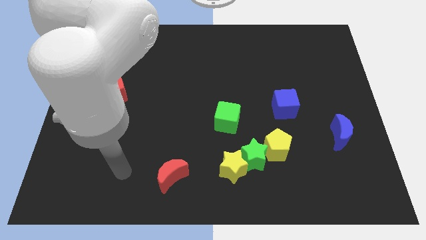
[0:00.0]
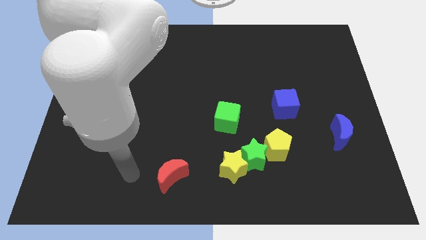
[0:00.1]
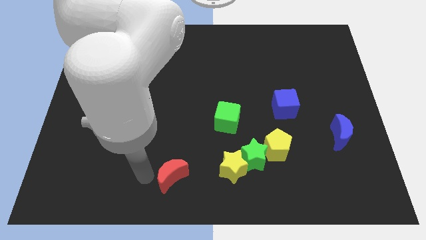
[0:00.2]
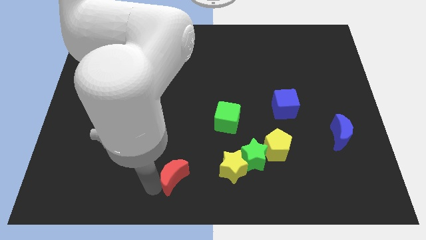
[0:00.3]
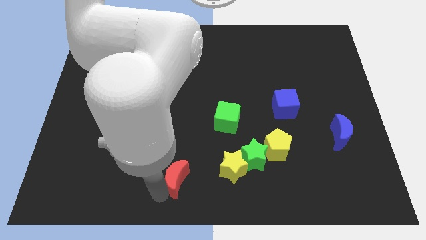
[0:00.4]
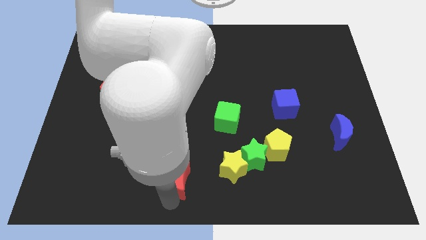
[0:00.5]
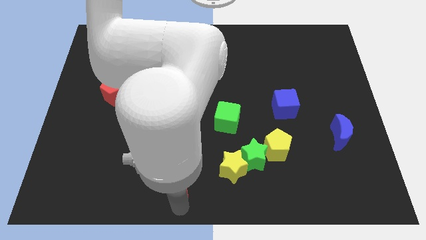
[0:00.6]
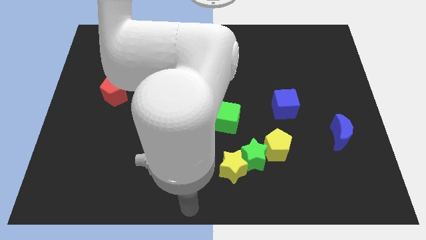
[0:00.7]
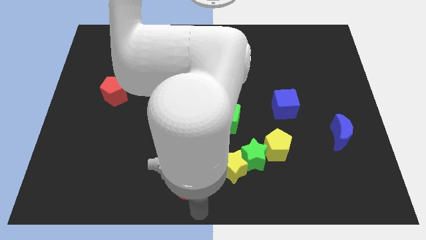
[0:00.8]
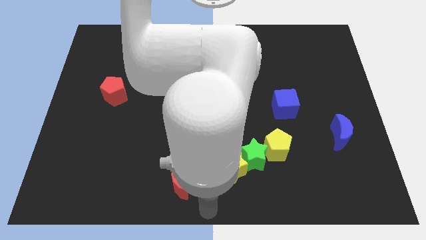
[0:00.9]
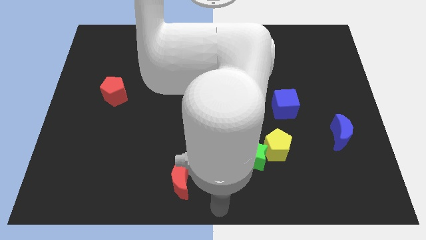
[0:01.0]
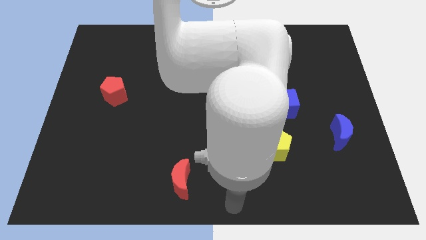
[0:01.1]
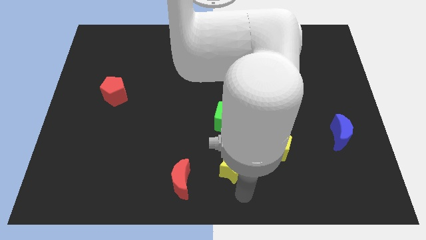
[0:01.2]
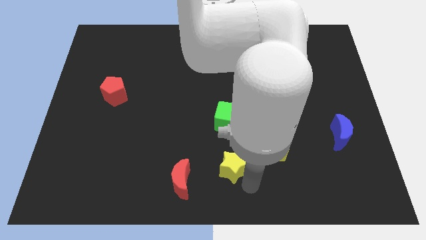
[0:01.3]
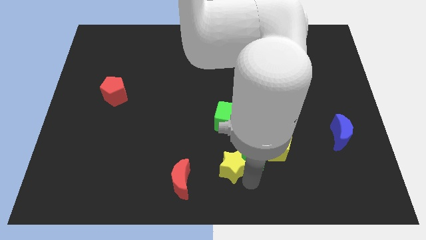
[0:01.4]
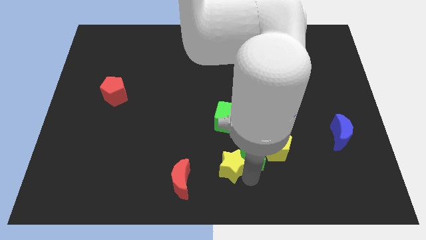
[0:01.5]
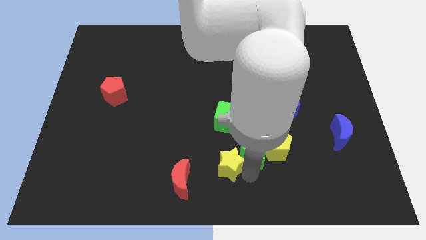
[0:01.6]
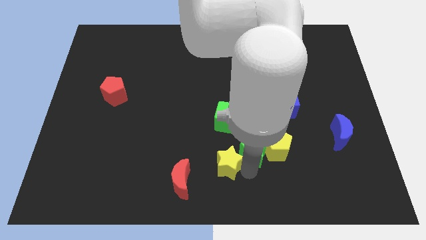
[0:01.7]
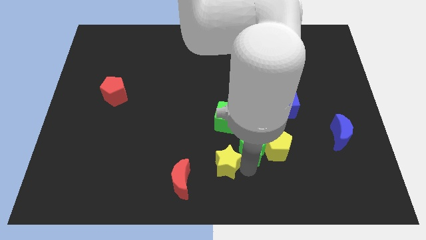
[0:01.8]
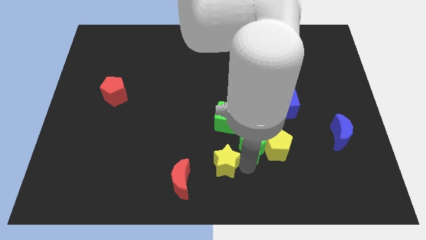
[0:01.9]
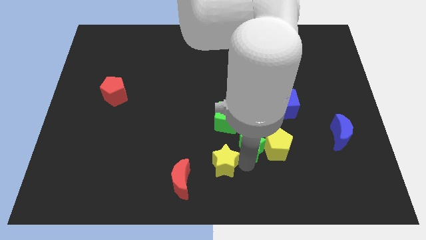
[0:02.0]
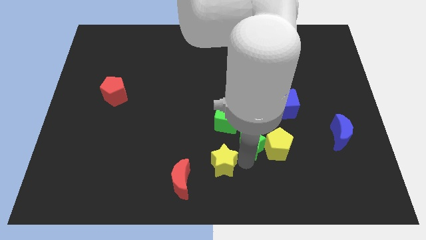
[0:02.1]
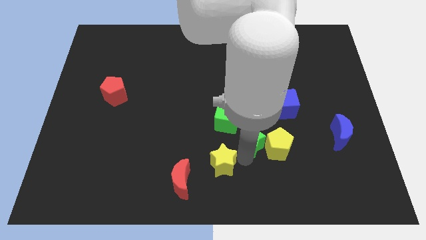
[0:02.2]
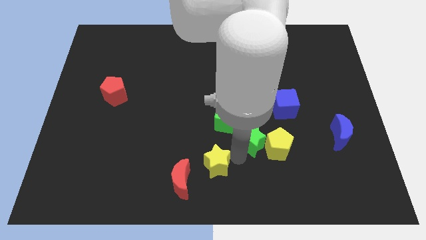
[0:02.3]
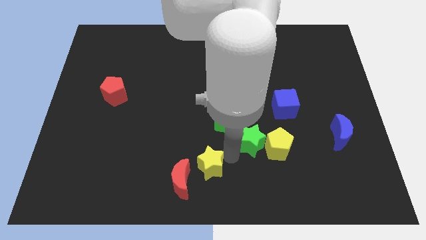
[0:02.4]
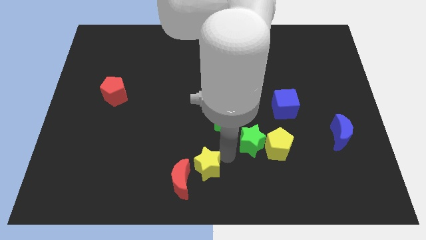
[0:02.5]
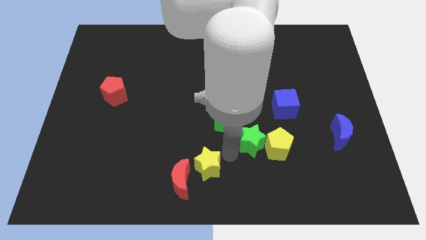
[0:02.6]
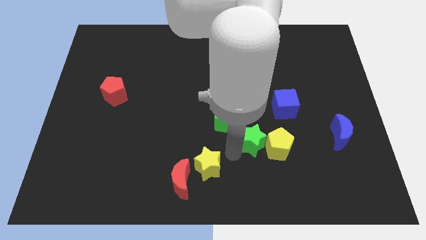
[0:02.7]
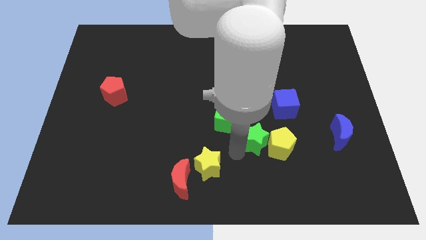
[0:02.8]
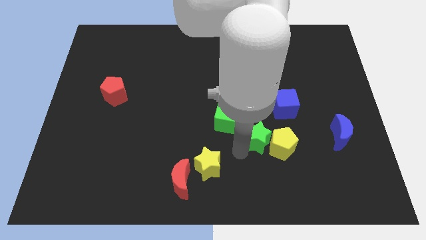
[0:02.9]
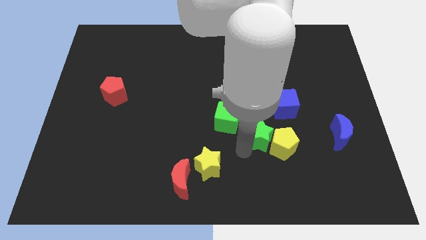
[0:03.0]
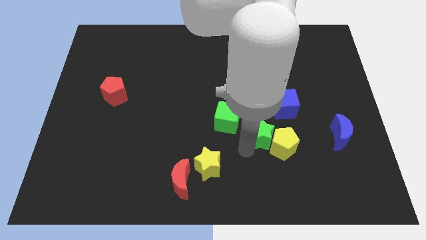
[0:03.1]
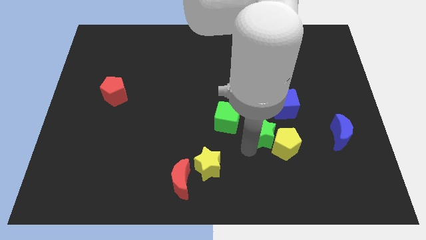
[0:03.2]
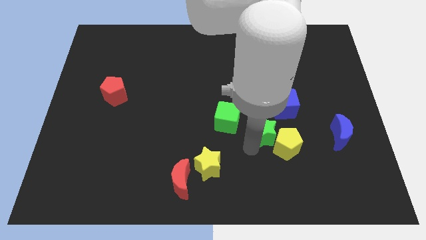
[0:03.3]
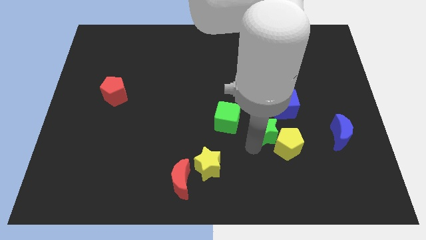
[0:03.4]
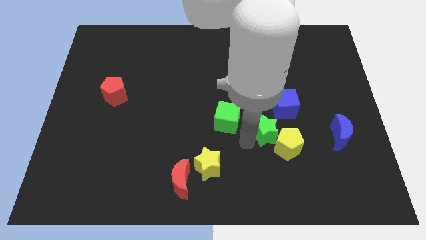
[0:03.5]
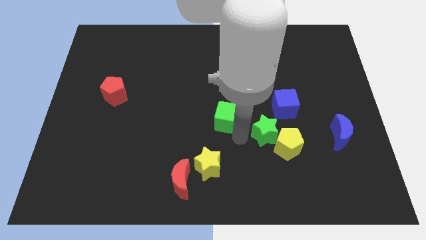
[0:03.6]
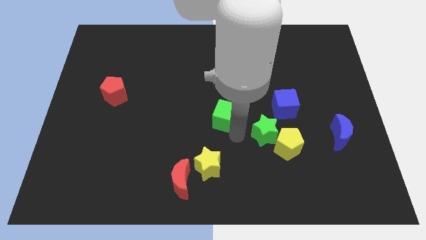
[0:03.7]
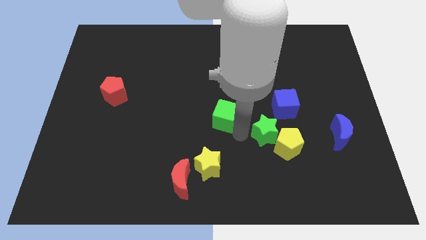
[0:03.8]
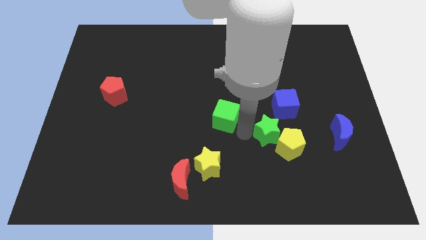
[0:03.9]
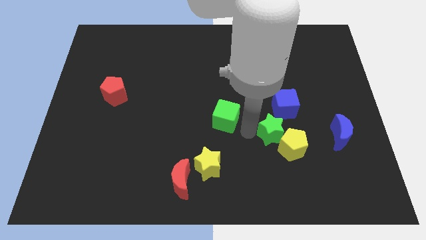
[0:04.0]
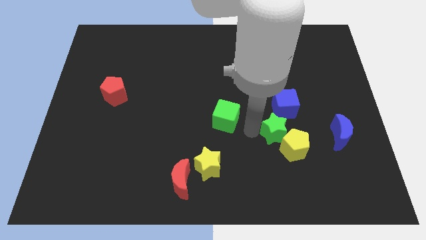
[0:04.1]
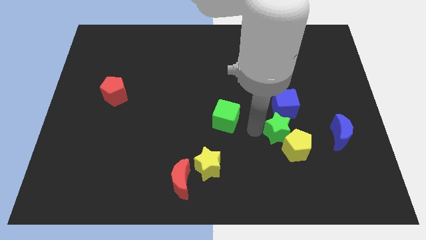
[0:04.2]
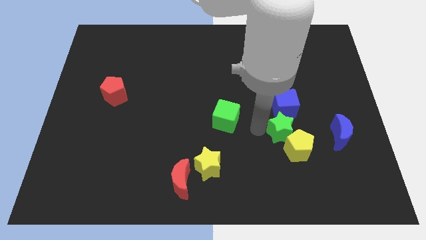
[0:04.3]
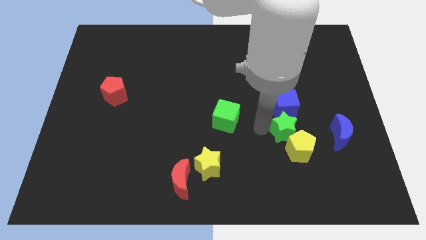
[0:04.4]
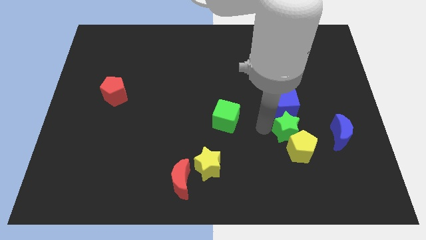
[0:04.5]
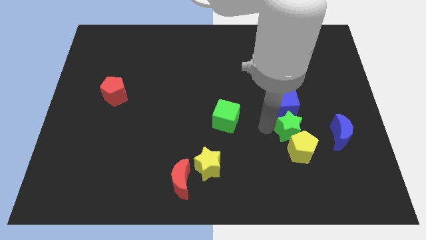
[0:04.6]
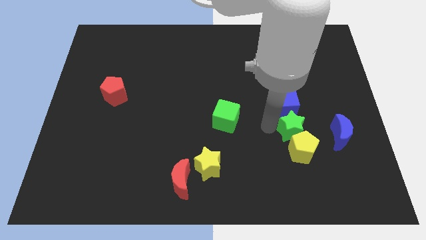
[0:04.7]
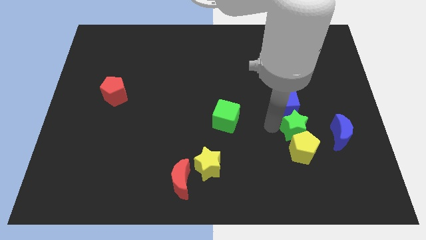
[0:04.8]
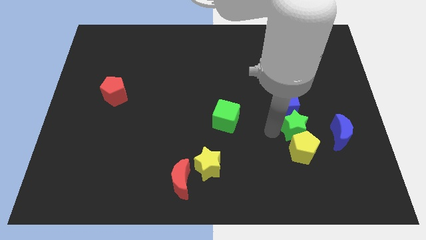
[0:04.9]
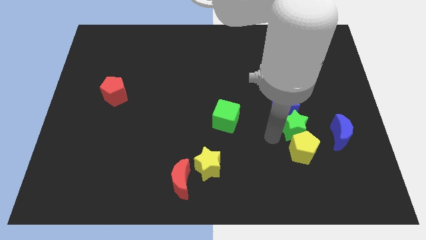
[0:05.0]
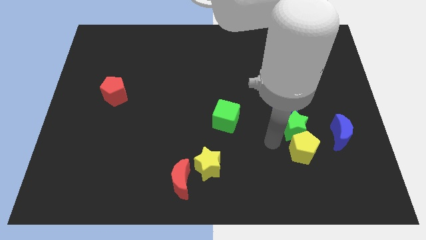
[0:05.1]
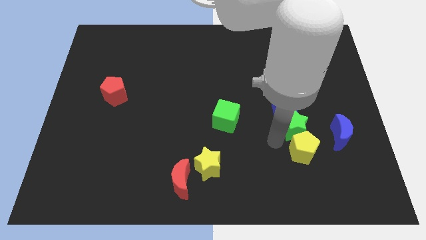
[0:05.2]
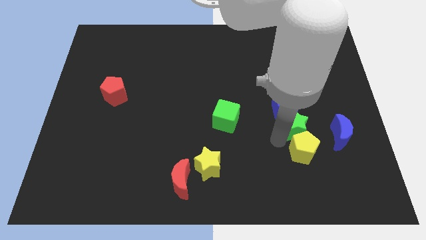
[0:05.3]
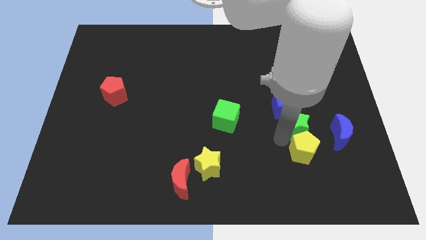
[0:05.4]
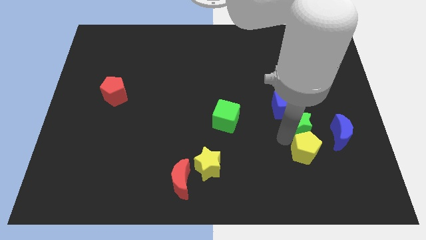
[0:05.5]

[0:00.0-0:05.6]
push the green star to the top left side of the blue moon

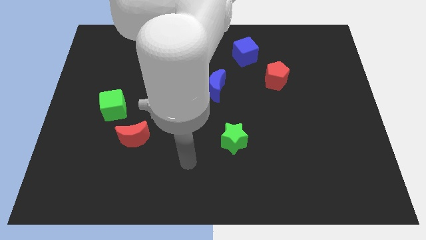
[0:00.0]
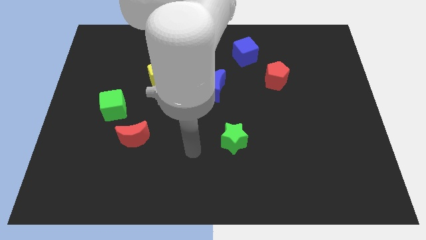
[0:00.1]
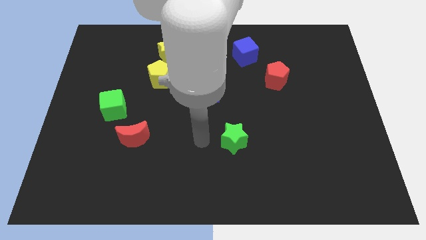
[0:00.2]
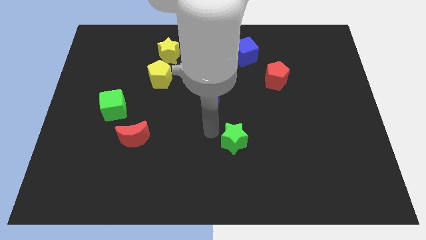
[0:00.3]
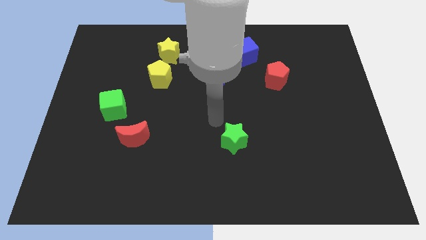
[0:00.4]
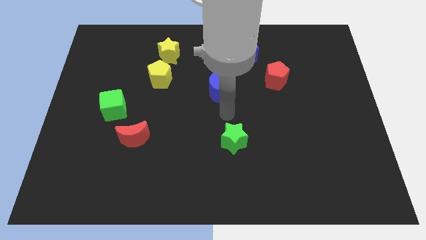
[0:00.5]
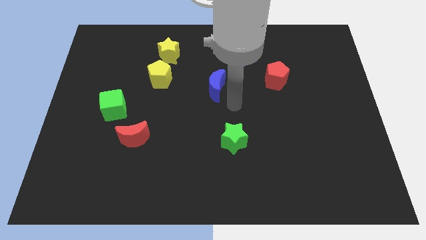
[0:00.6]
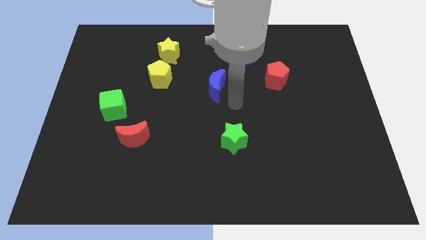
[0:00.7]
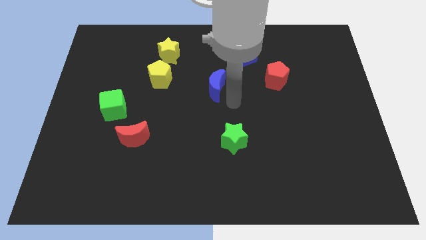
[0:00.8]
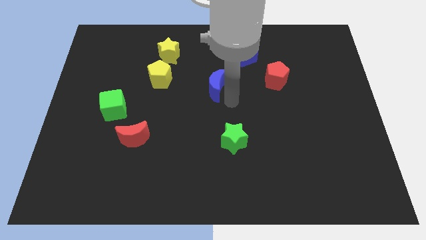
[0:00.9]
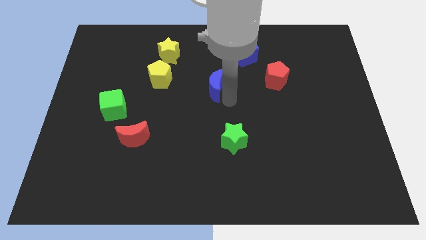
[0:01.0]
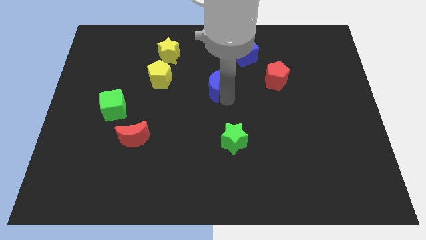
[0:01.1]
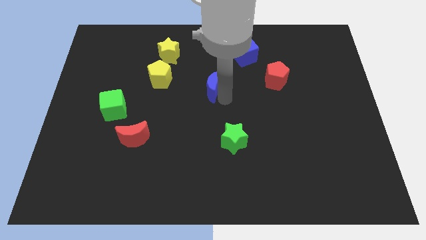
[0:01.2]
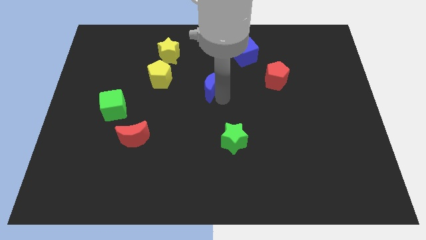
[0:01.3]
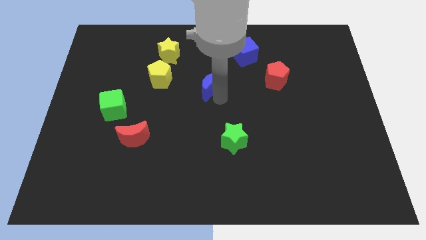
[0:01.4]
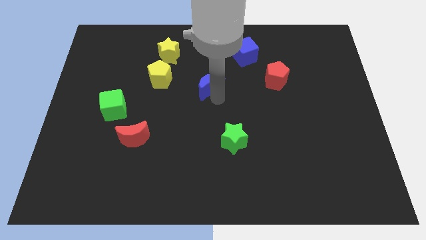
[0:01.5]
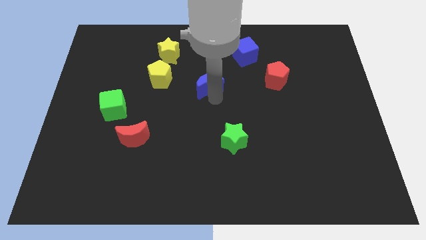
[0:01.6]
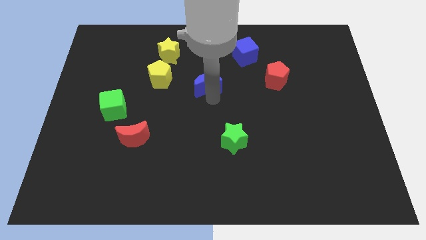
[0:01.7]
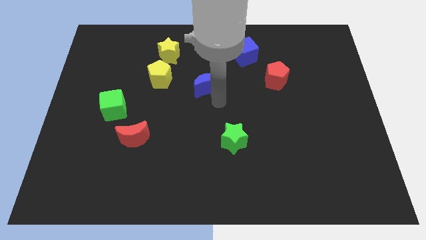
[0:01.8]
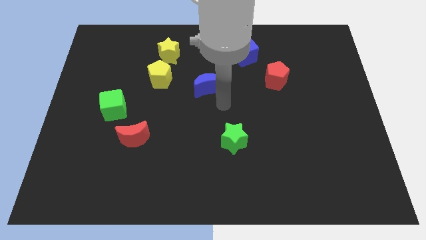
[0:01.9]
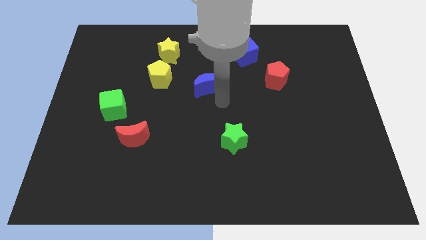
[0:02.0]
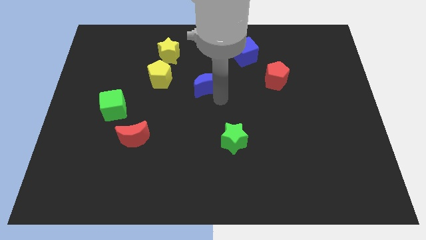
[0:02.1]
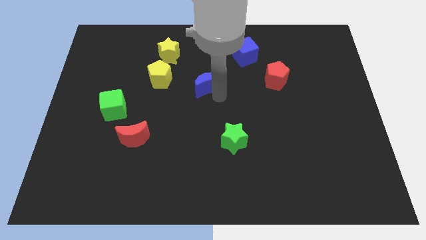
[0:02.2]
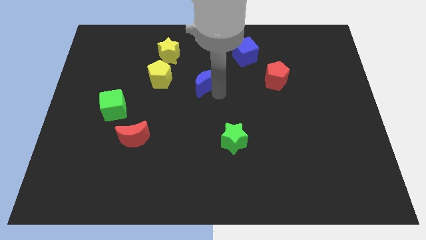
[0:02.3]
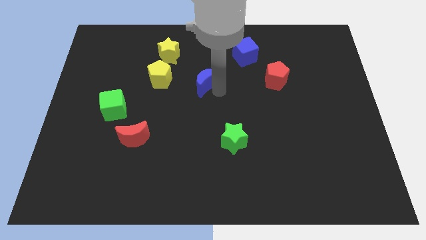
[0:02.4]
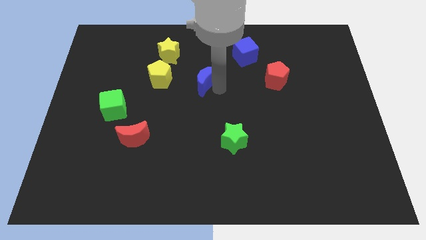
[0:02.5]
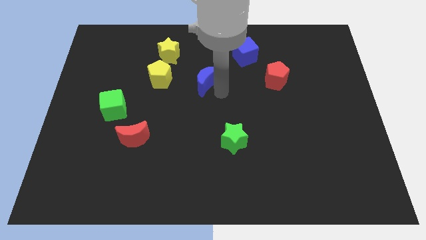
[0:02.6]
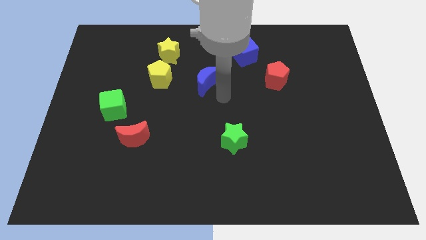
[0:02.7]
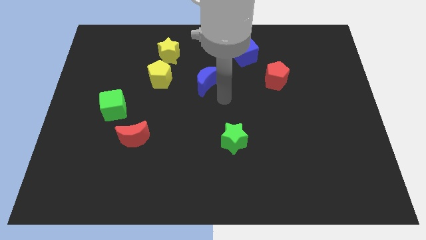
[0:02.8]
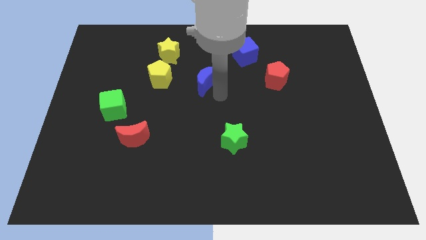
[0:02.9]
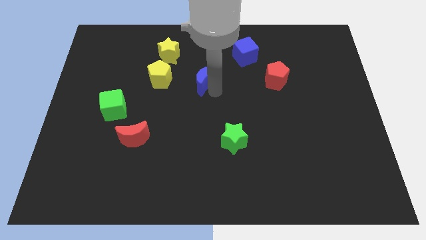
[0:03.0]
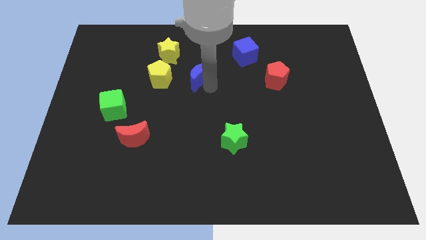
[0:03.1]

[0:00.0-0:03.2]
slide the blue moon to the bottom right of the yellow star
